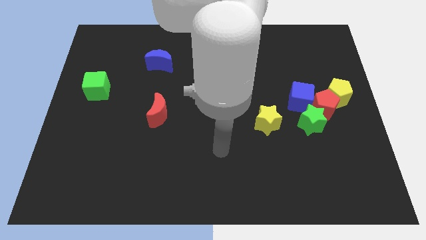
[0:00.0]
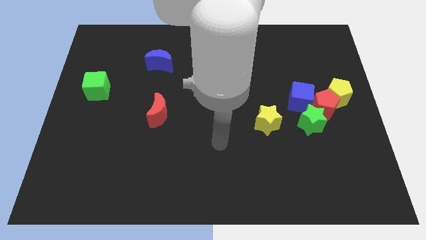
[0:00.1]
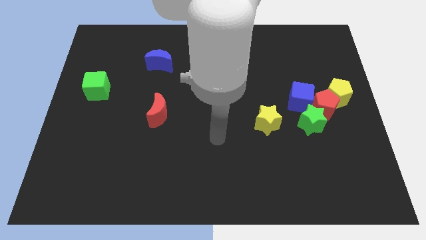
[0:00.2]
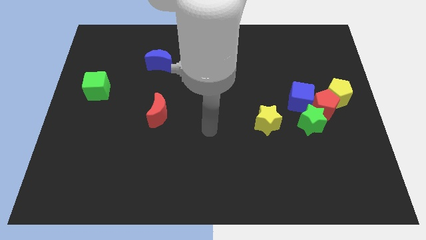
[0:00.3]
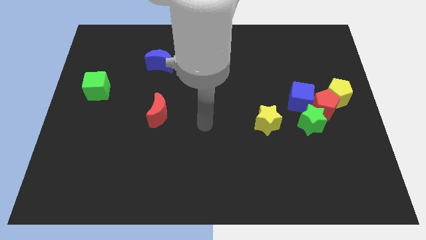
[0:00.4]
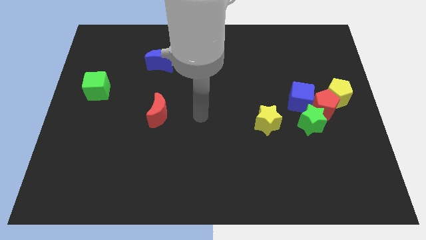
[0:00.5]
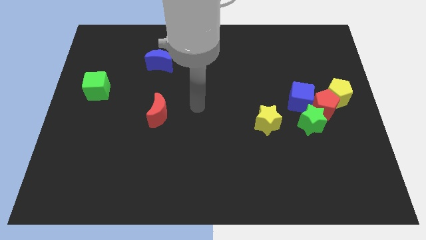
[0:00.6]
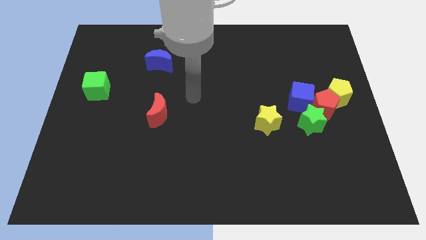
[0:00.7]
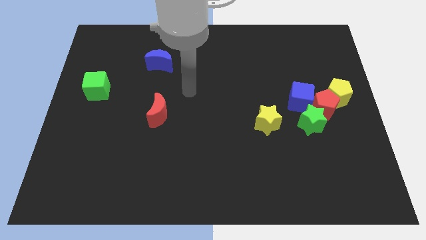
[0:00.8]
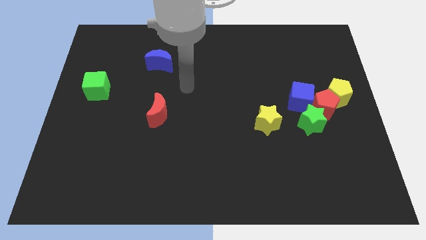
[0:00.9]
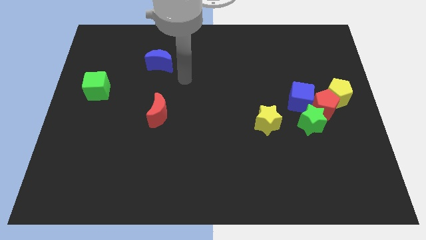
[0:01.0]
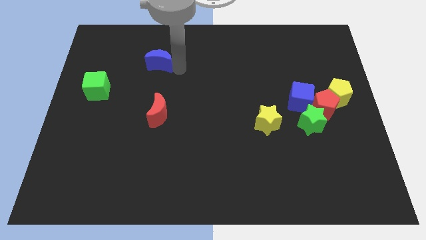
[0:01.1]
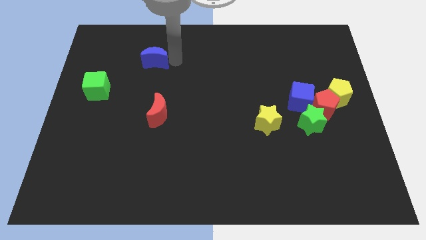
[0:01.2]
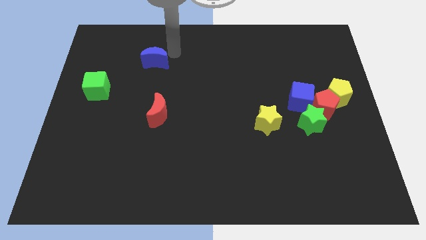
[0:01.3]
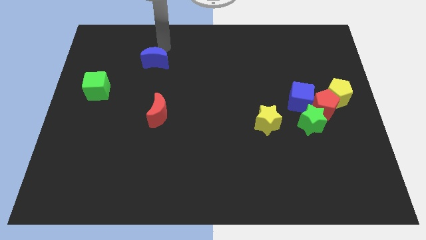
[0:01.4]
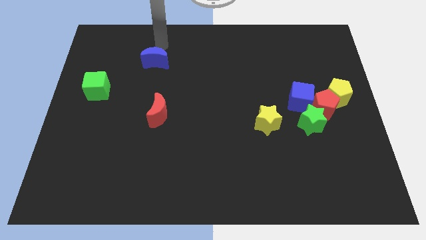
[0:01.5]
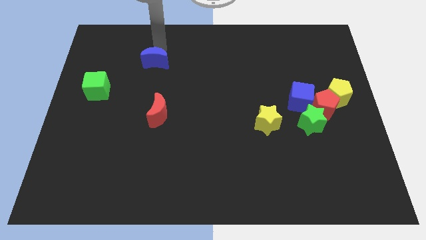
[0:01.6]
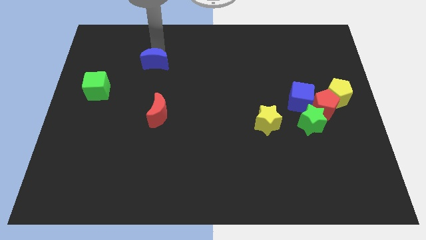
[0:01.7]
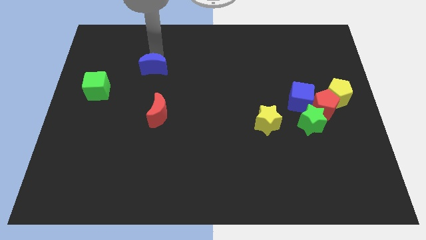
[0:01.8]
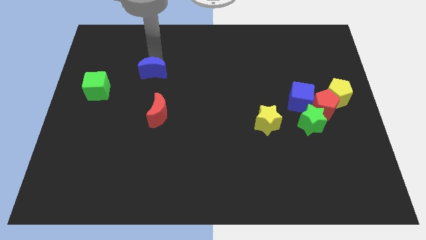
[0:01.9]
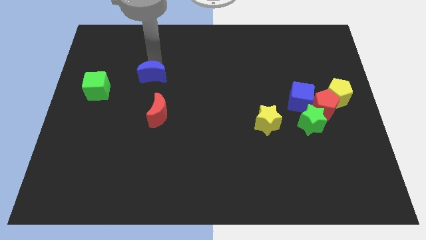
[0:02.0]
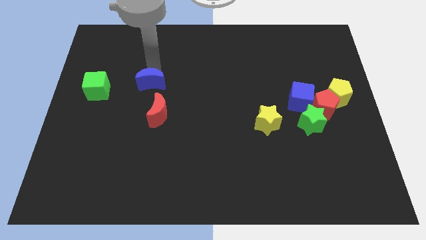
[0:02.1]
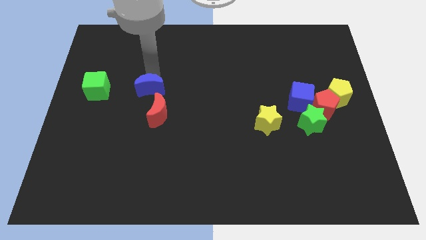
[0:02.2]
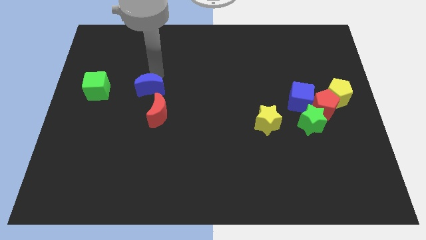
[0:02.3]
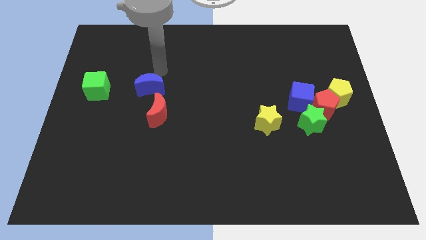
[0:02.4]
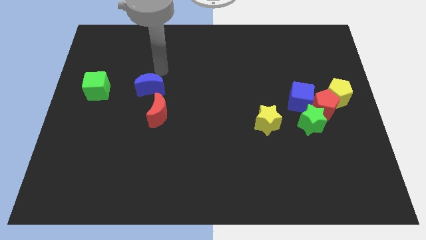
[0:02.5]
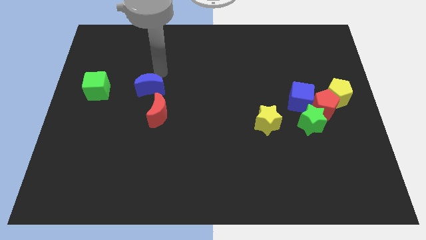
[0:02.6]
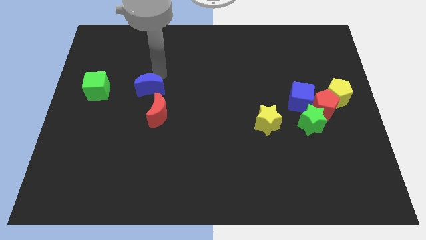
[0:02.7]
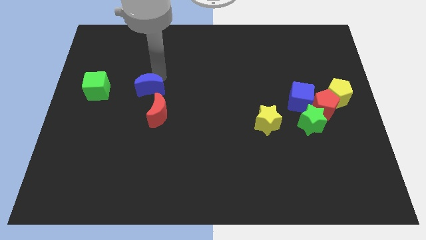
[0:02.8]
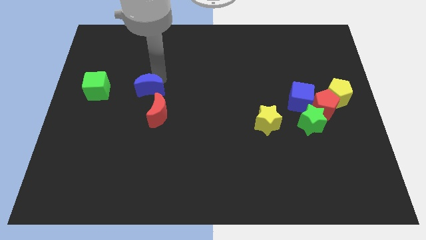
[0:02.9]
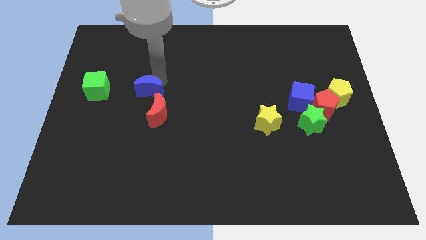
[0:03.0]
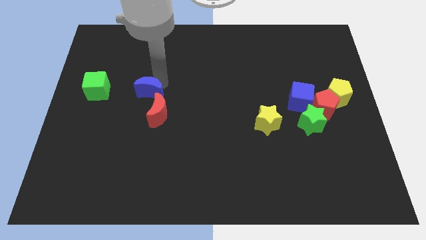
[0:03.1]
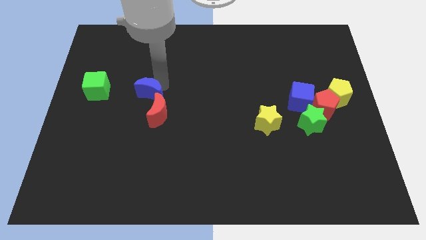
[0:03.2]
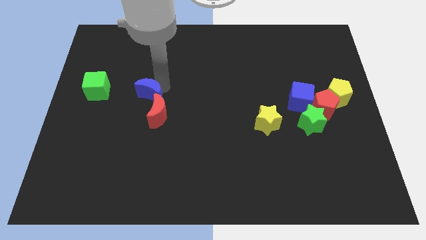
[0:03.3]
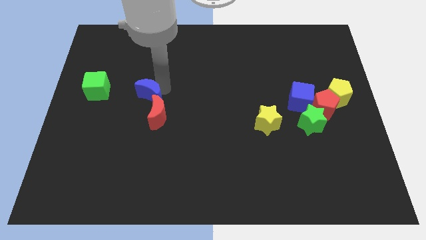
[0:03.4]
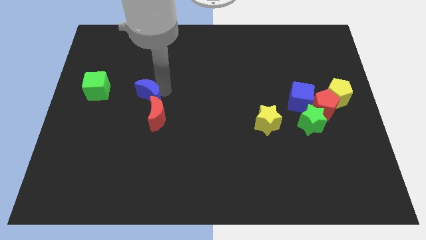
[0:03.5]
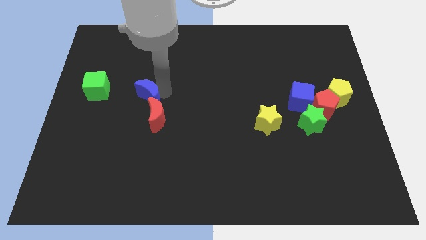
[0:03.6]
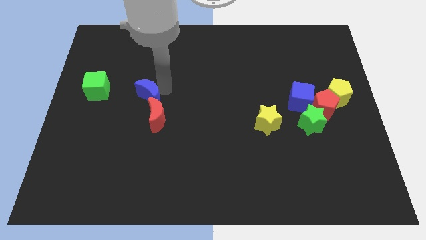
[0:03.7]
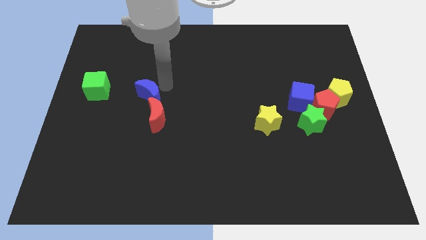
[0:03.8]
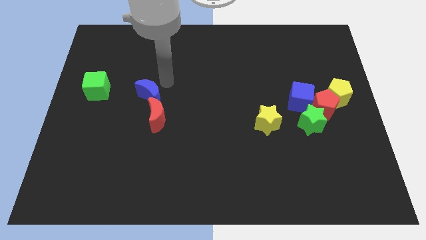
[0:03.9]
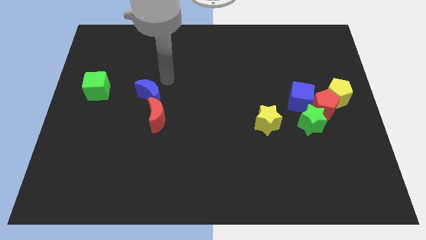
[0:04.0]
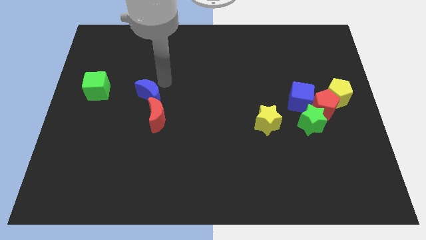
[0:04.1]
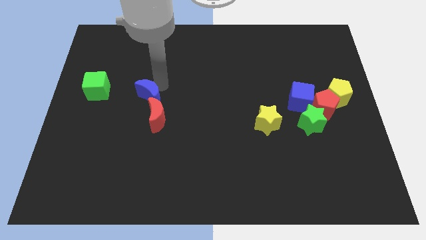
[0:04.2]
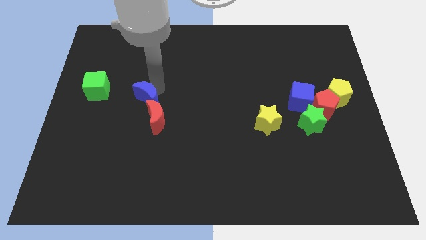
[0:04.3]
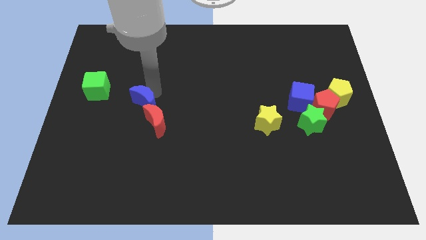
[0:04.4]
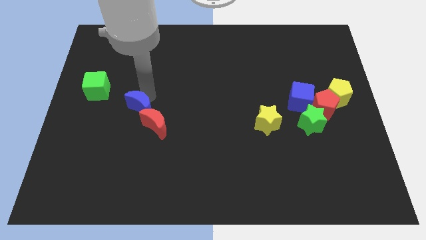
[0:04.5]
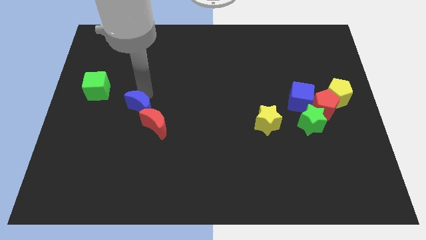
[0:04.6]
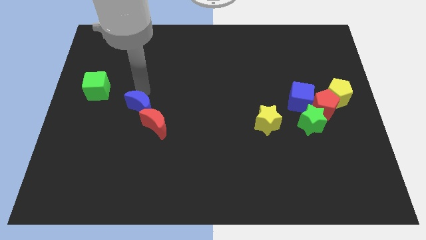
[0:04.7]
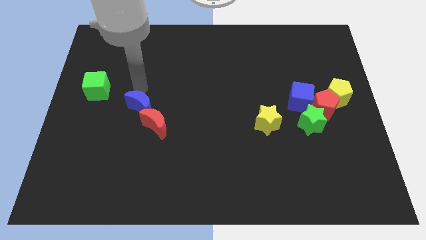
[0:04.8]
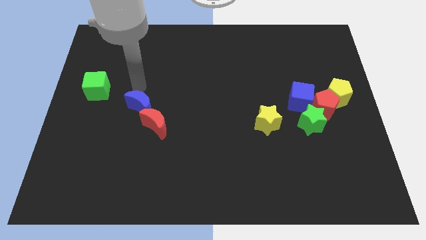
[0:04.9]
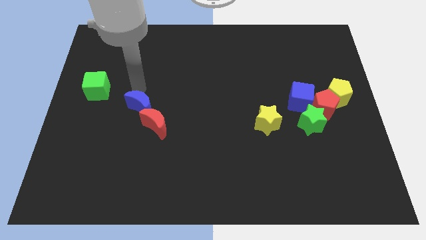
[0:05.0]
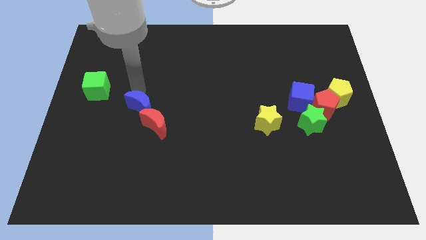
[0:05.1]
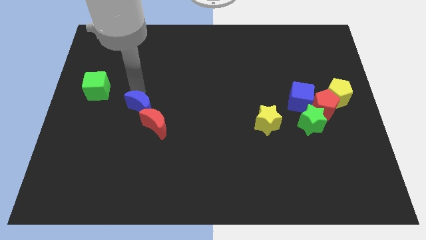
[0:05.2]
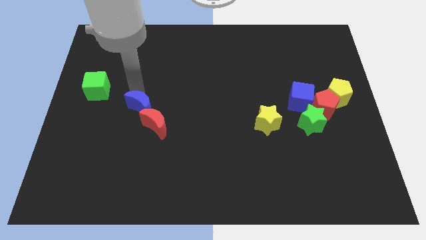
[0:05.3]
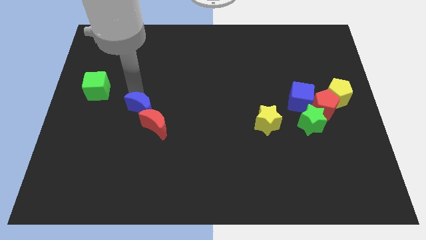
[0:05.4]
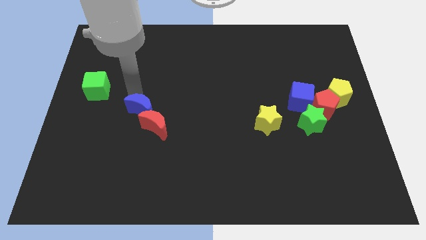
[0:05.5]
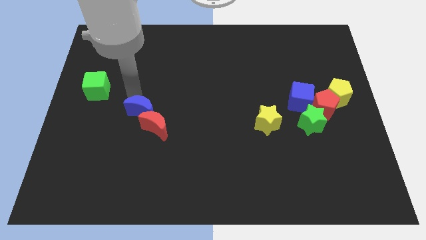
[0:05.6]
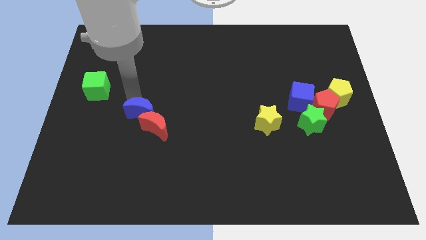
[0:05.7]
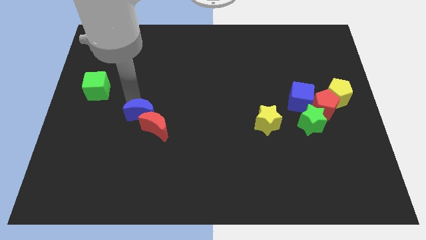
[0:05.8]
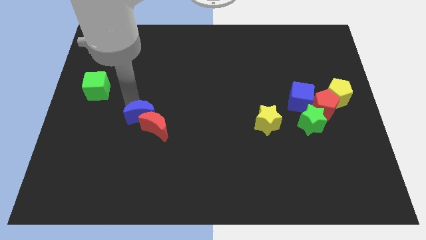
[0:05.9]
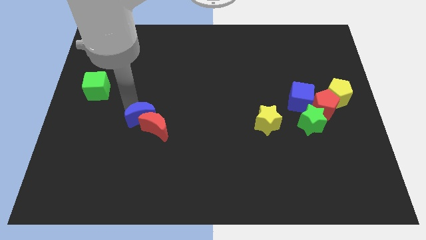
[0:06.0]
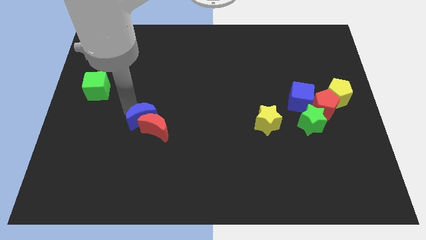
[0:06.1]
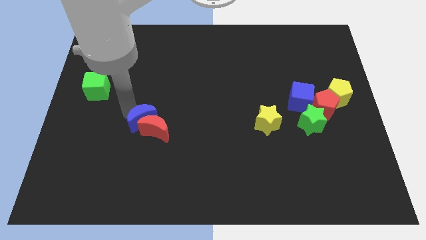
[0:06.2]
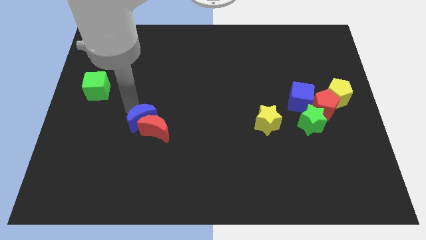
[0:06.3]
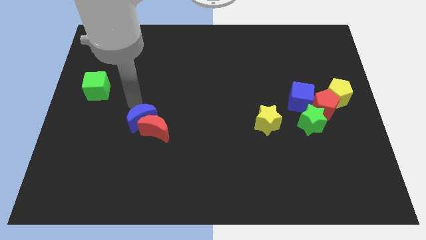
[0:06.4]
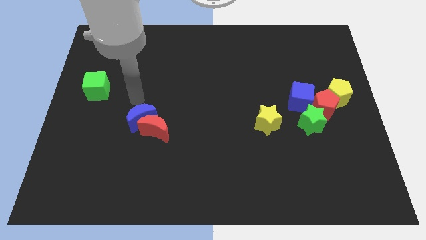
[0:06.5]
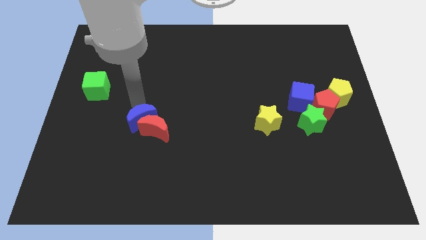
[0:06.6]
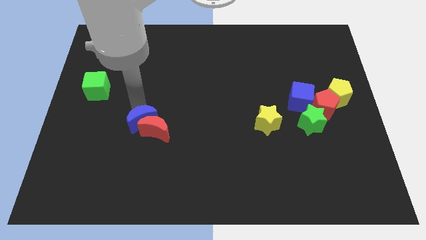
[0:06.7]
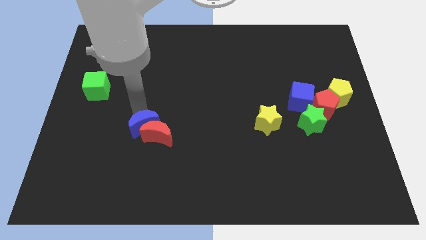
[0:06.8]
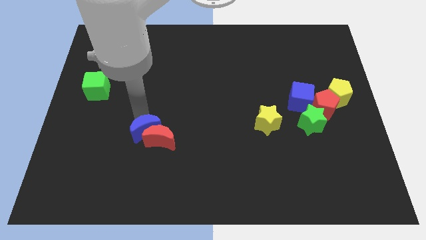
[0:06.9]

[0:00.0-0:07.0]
push the blue moon downwards

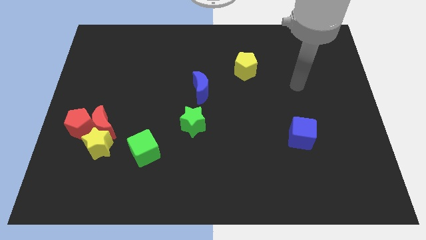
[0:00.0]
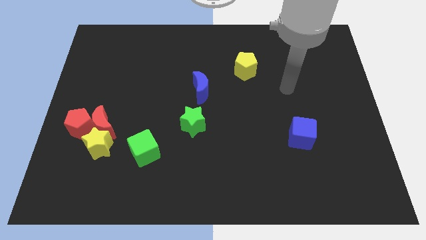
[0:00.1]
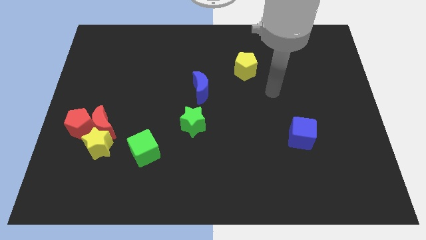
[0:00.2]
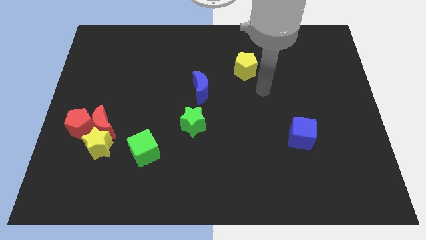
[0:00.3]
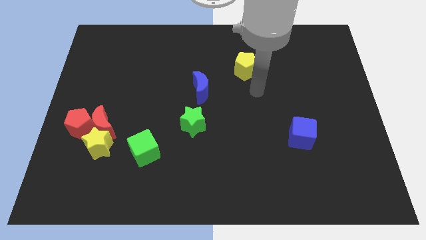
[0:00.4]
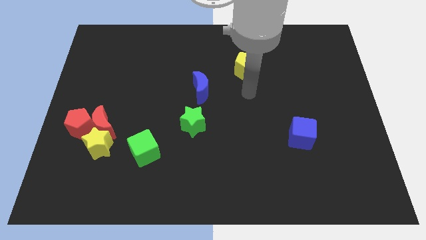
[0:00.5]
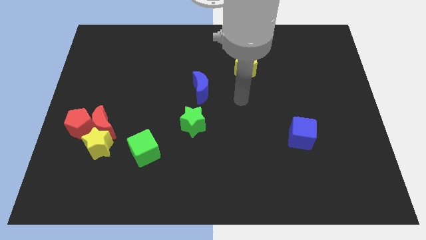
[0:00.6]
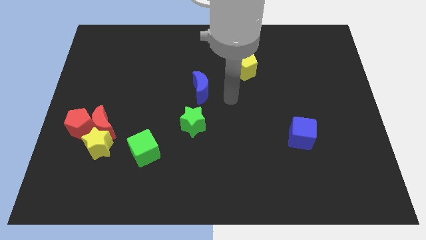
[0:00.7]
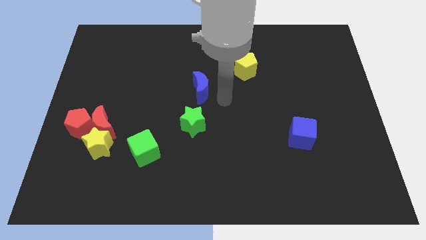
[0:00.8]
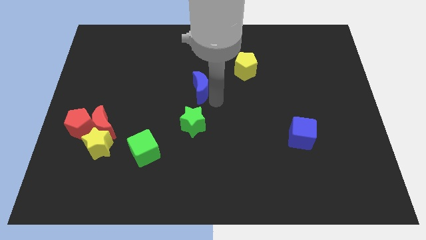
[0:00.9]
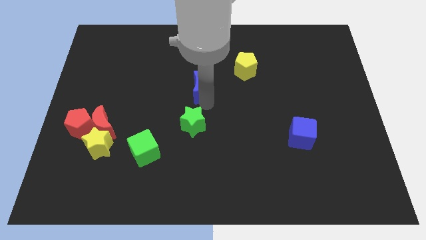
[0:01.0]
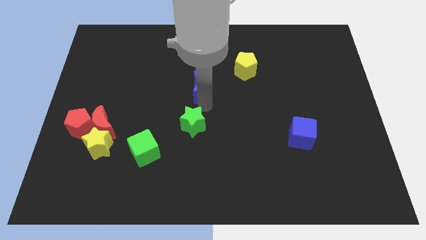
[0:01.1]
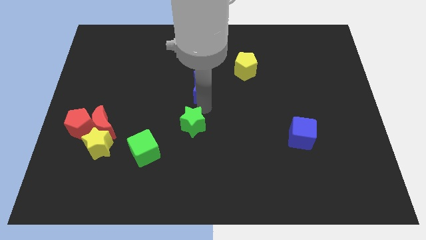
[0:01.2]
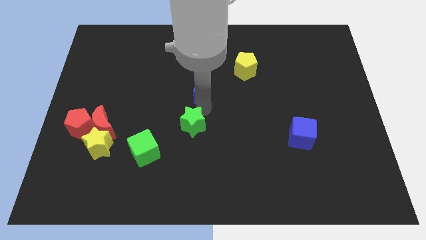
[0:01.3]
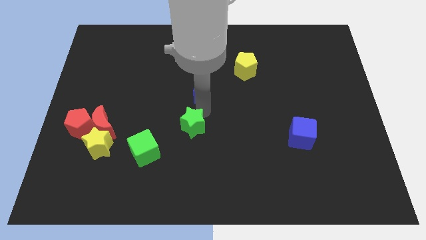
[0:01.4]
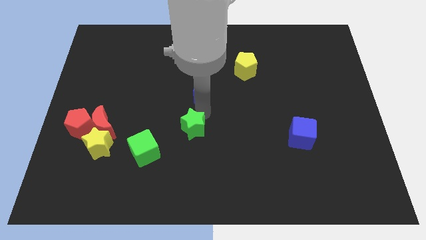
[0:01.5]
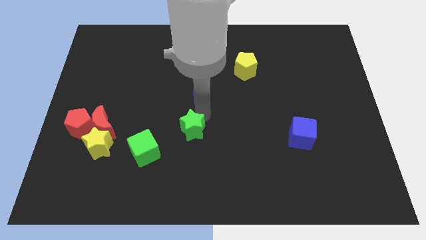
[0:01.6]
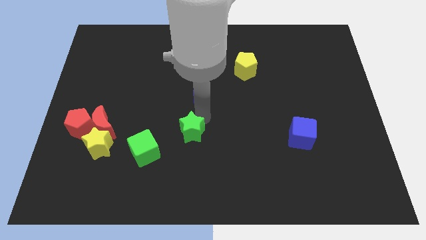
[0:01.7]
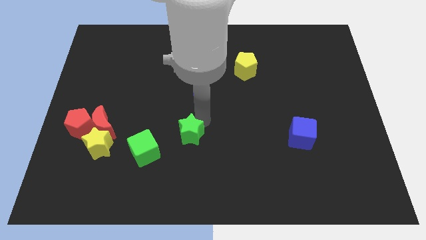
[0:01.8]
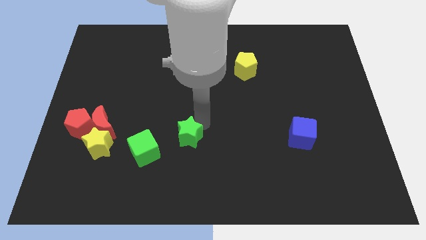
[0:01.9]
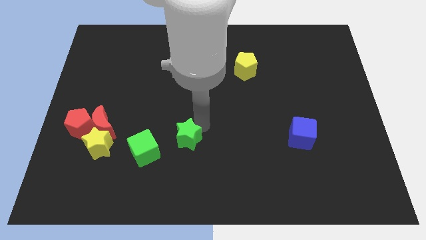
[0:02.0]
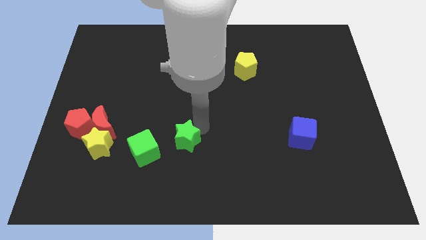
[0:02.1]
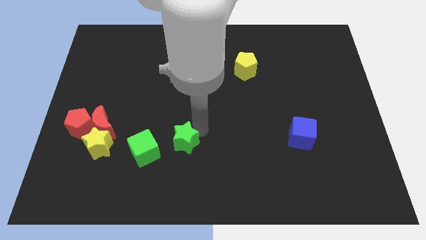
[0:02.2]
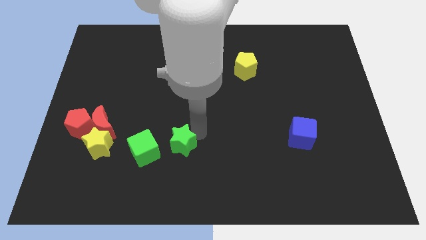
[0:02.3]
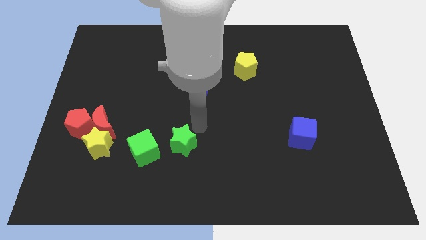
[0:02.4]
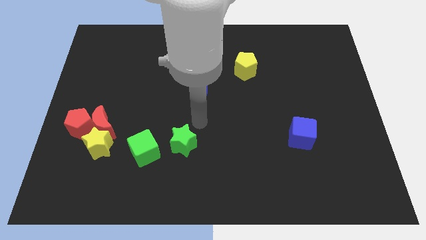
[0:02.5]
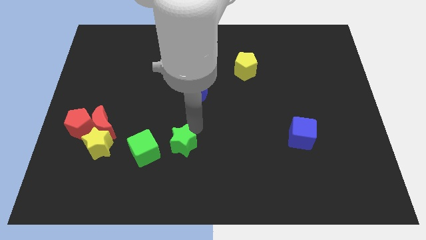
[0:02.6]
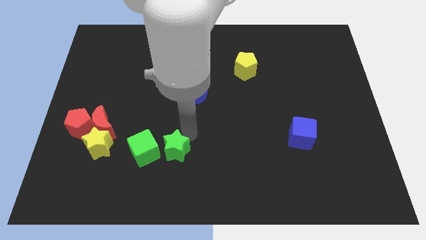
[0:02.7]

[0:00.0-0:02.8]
push the green star a little down and to the left
